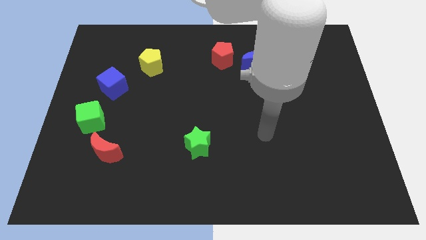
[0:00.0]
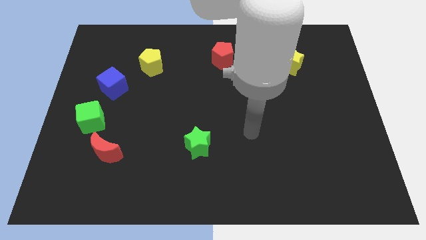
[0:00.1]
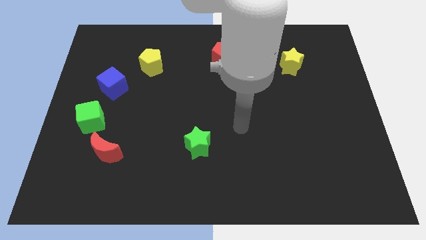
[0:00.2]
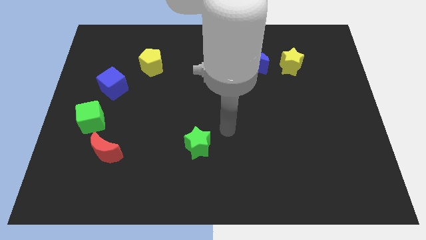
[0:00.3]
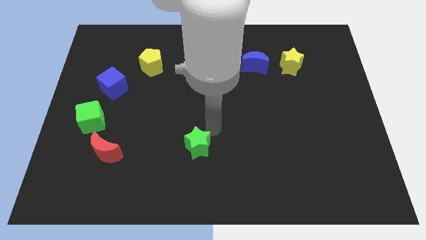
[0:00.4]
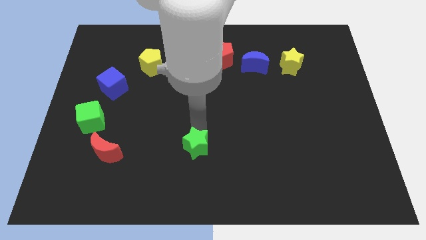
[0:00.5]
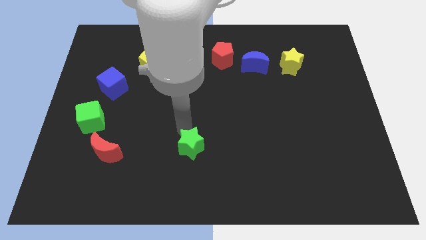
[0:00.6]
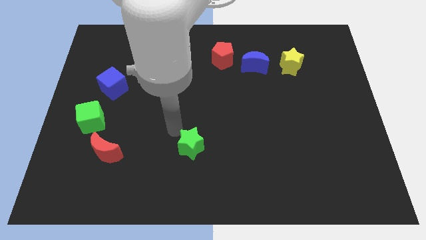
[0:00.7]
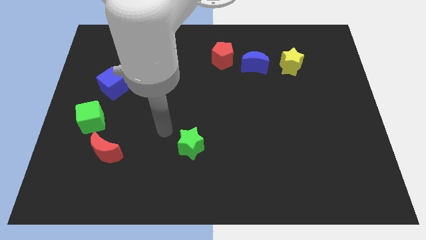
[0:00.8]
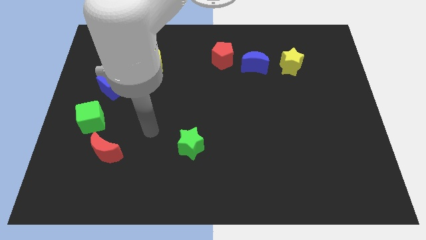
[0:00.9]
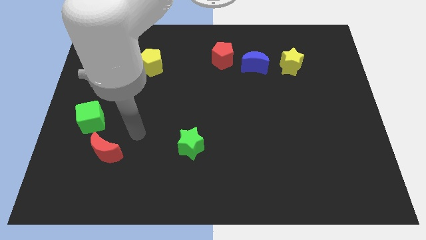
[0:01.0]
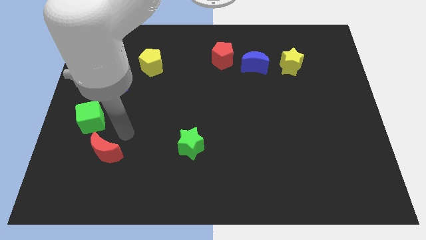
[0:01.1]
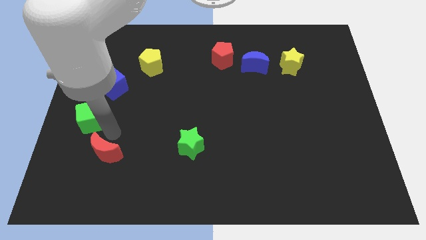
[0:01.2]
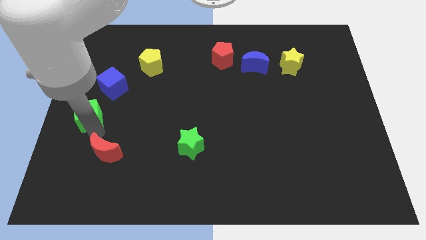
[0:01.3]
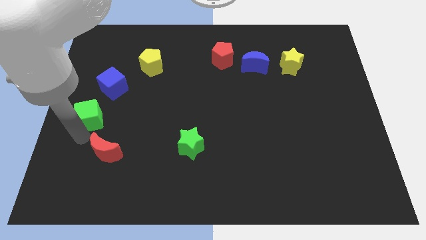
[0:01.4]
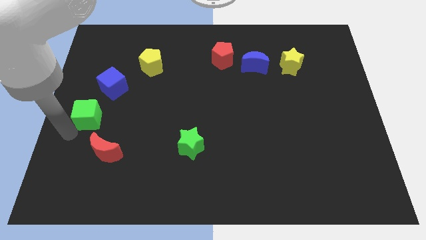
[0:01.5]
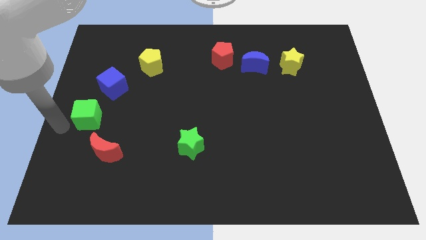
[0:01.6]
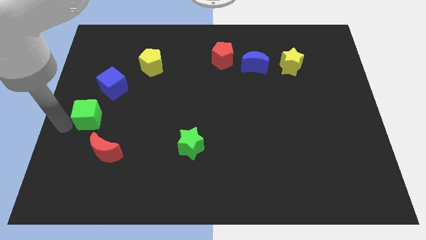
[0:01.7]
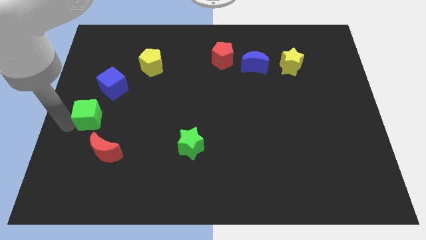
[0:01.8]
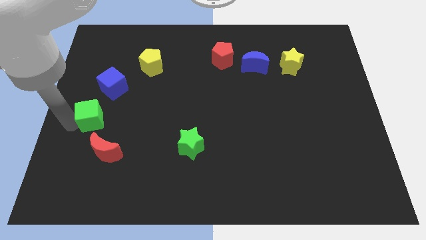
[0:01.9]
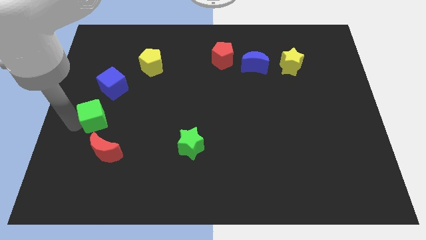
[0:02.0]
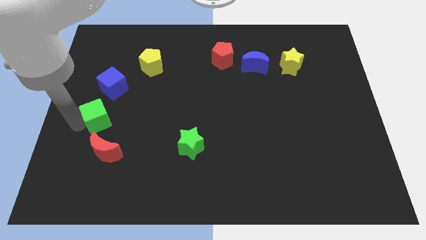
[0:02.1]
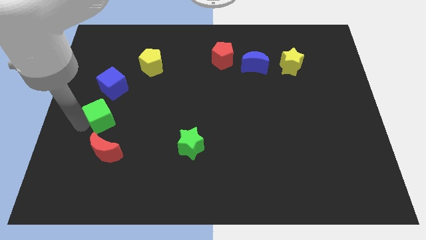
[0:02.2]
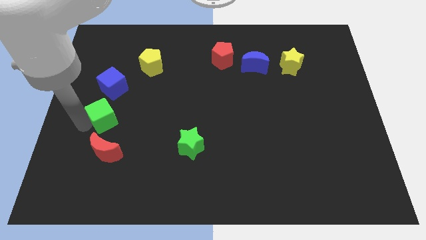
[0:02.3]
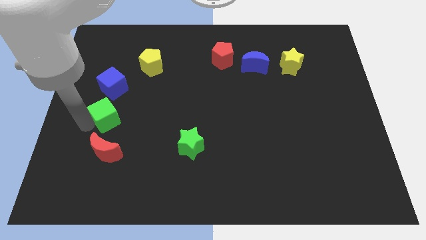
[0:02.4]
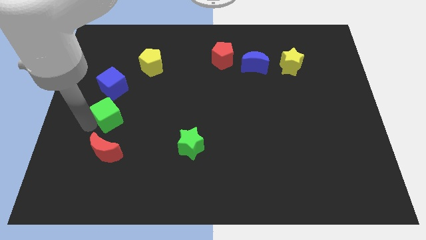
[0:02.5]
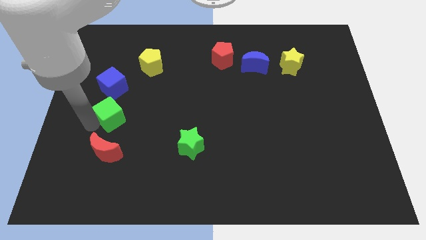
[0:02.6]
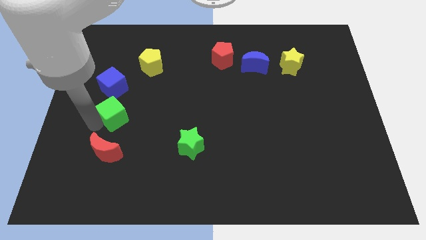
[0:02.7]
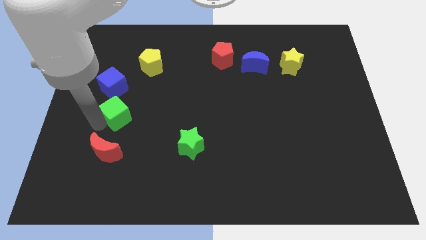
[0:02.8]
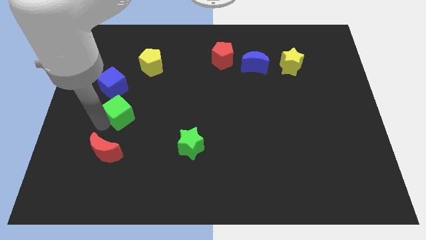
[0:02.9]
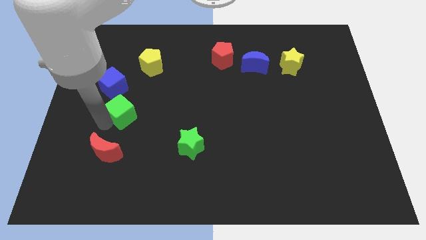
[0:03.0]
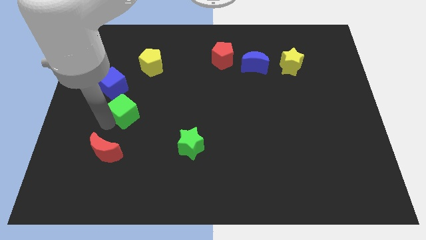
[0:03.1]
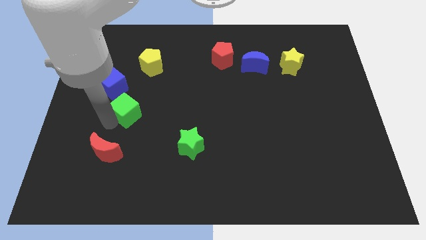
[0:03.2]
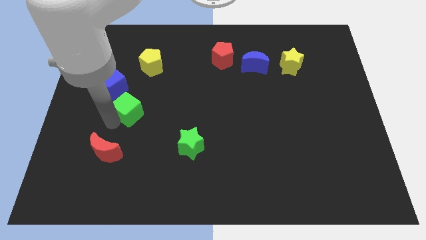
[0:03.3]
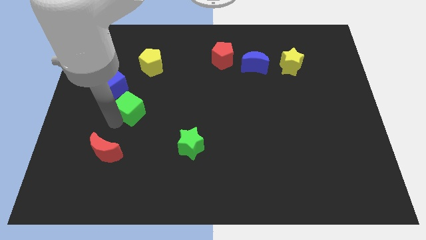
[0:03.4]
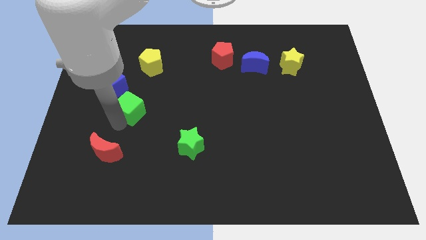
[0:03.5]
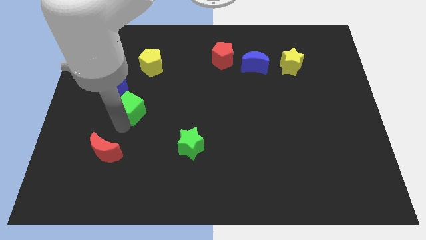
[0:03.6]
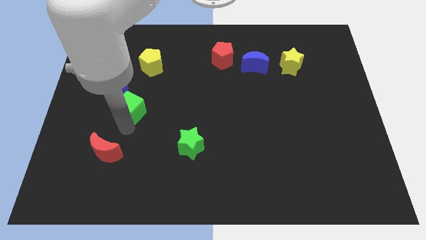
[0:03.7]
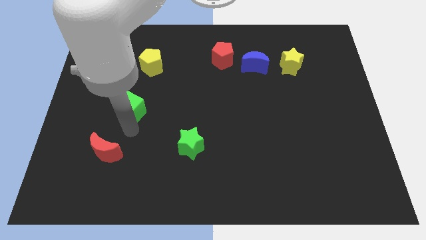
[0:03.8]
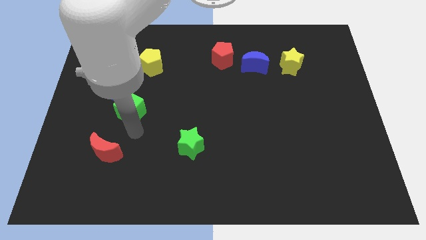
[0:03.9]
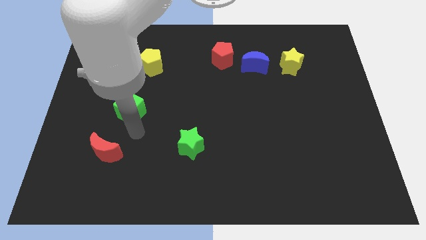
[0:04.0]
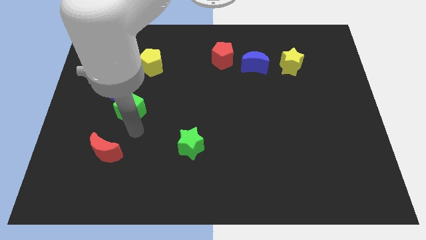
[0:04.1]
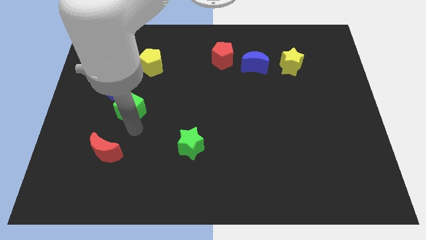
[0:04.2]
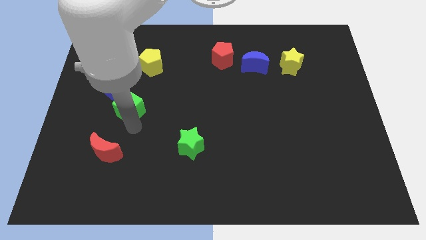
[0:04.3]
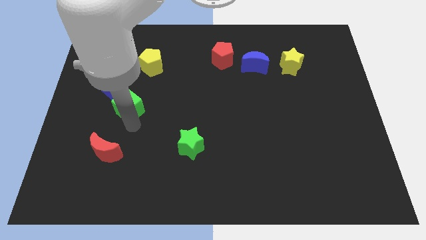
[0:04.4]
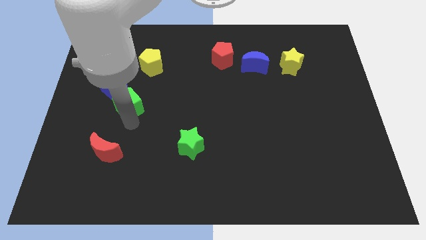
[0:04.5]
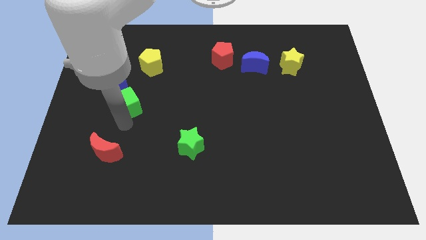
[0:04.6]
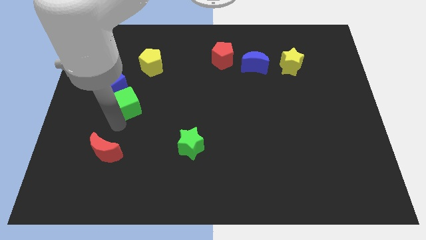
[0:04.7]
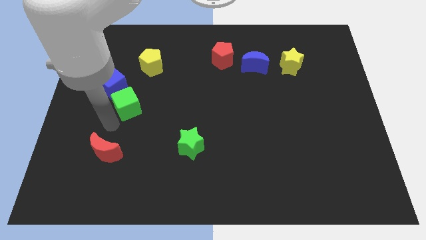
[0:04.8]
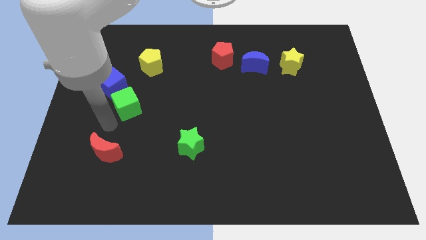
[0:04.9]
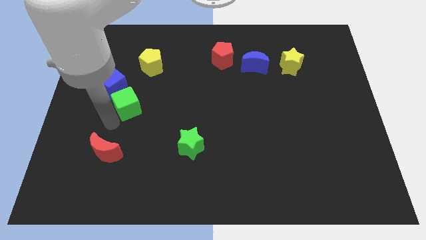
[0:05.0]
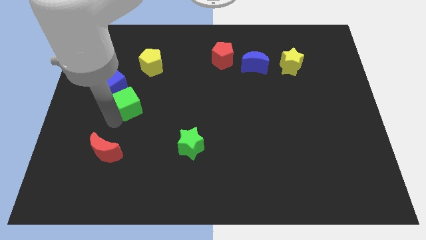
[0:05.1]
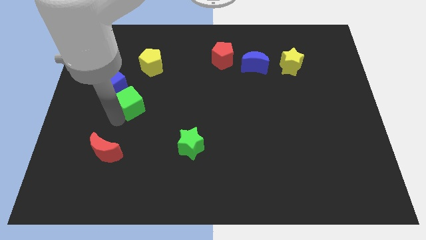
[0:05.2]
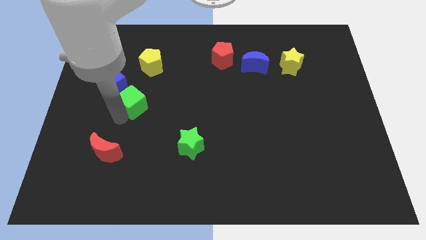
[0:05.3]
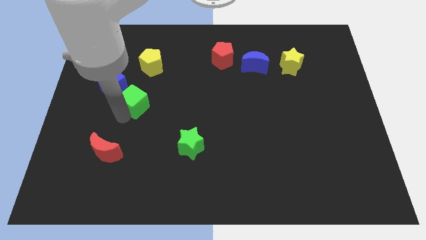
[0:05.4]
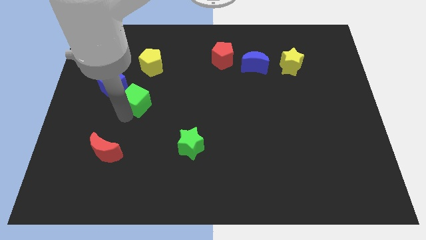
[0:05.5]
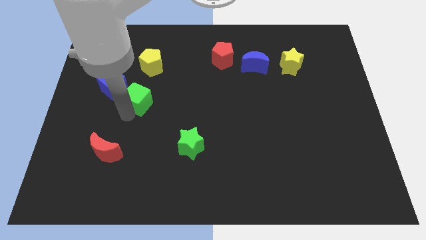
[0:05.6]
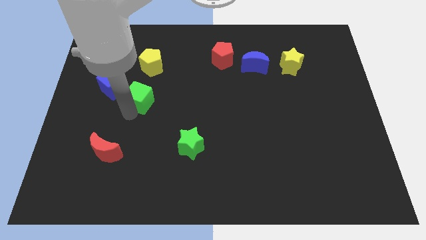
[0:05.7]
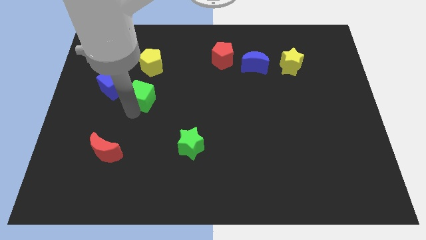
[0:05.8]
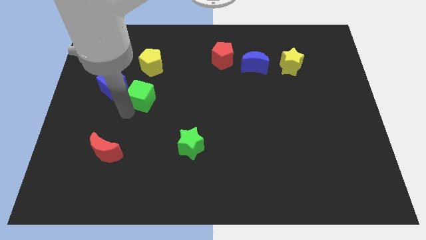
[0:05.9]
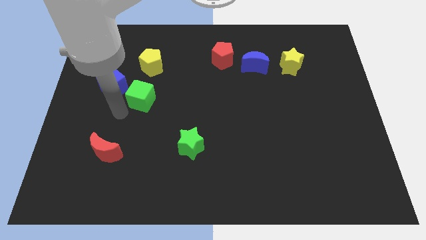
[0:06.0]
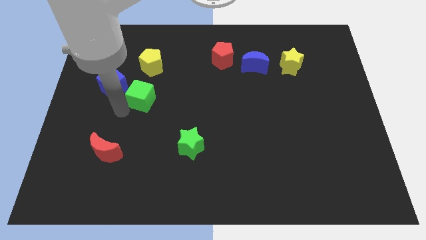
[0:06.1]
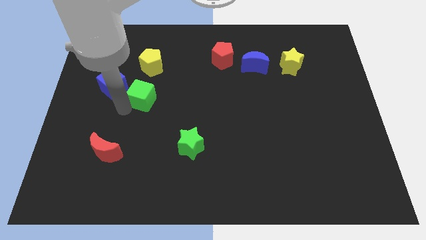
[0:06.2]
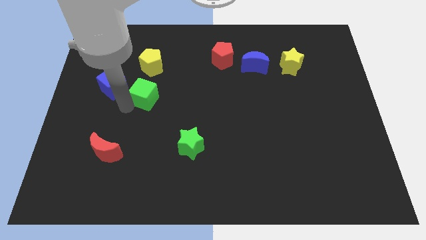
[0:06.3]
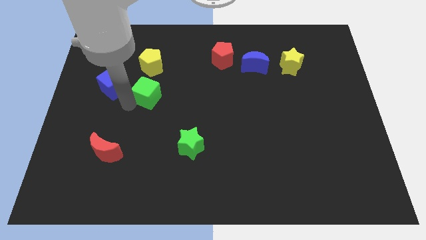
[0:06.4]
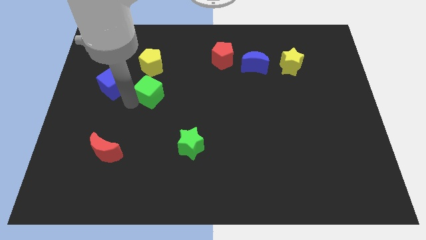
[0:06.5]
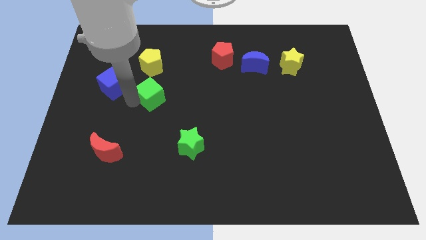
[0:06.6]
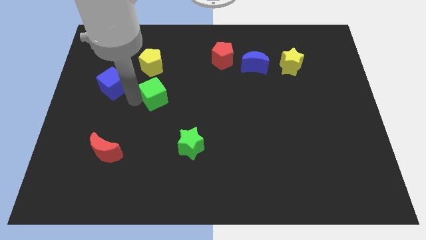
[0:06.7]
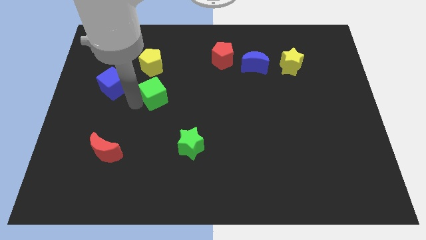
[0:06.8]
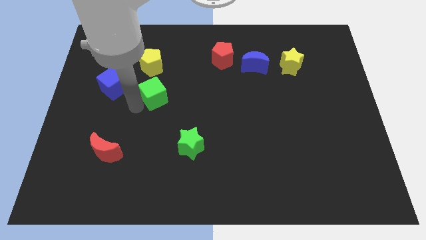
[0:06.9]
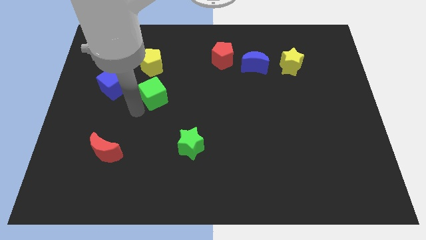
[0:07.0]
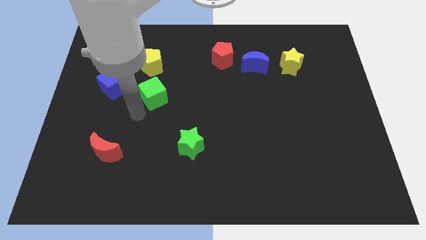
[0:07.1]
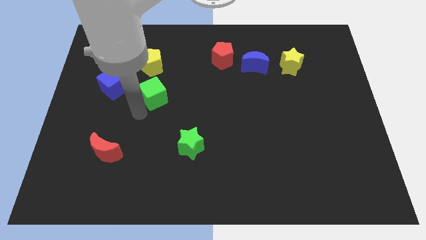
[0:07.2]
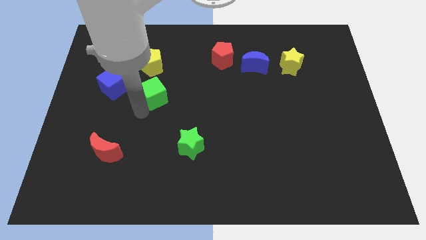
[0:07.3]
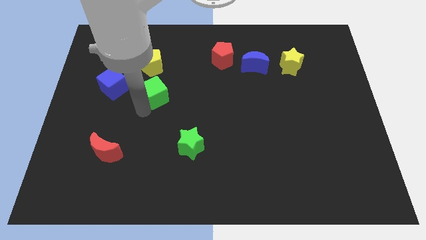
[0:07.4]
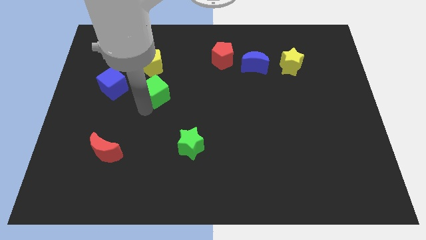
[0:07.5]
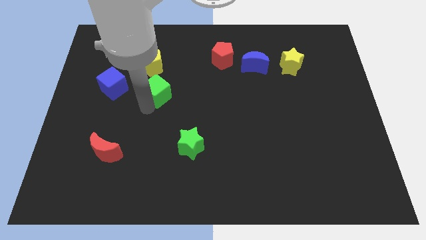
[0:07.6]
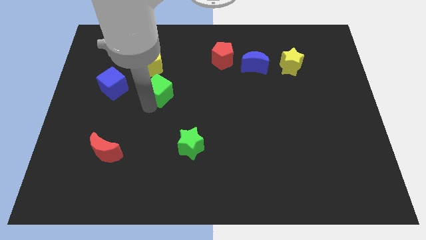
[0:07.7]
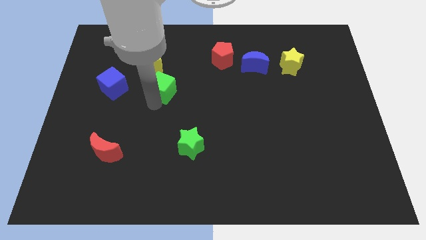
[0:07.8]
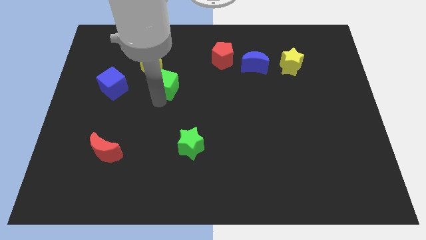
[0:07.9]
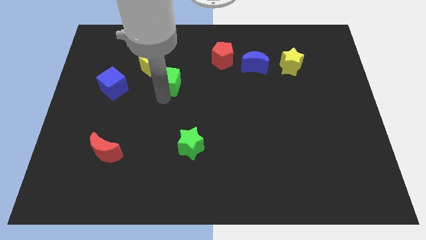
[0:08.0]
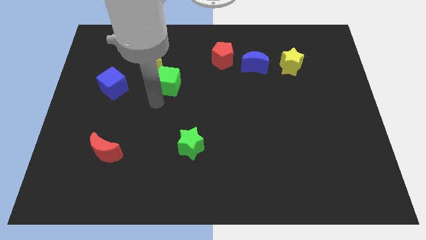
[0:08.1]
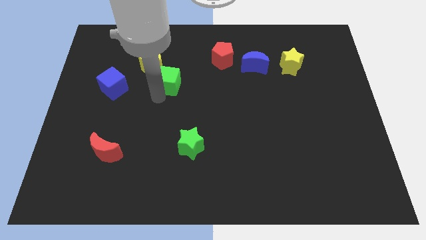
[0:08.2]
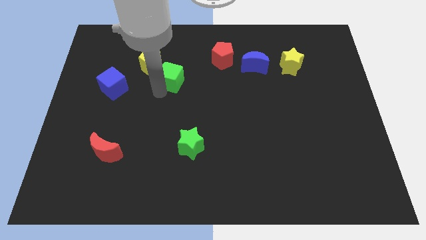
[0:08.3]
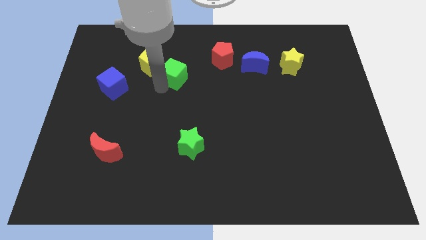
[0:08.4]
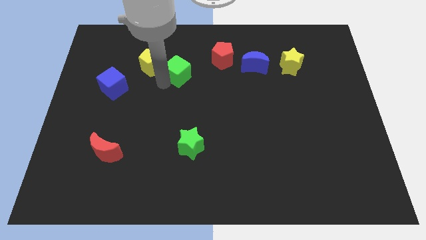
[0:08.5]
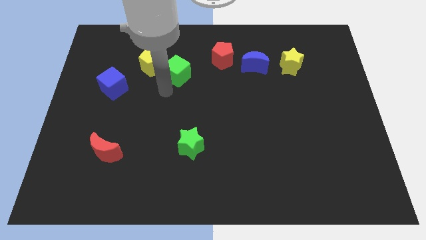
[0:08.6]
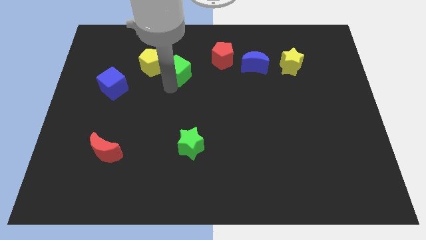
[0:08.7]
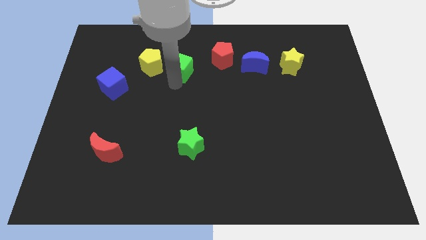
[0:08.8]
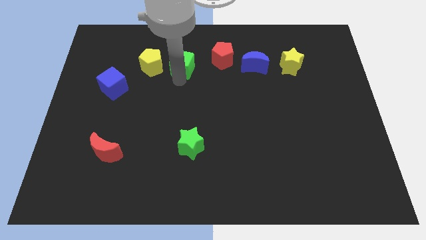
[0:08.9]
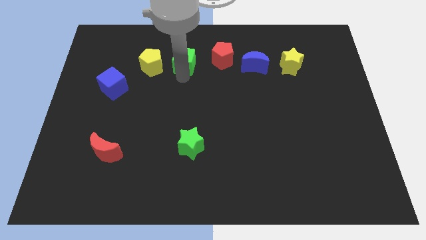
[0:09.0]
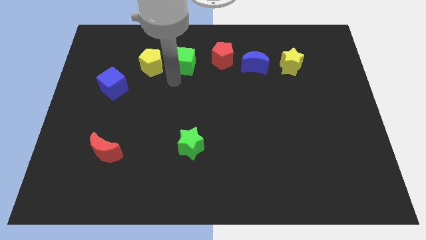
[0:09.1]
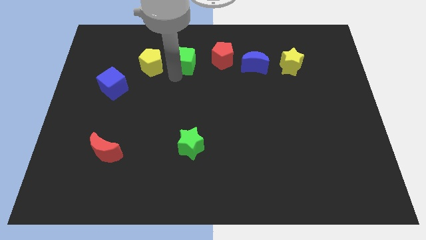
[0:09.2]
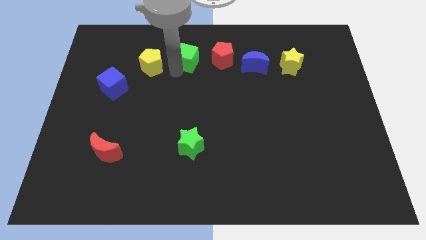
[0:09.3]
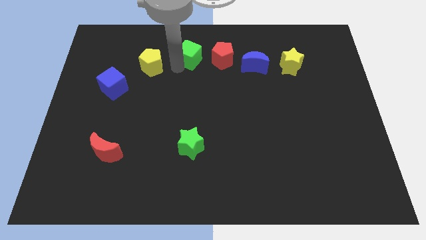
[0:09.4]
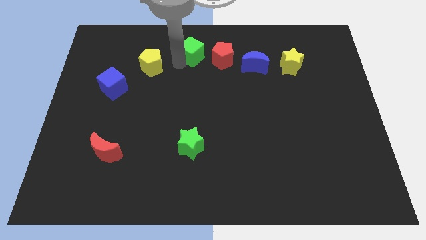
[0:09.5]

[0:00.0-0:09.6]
push the green cube to the towards your base
